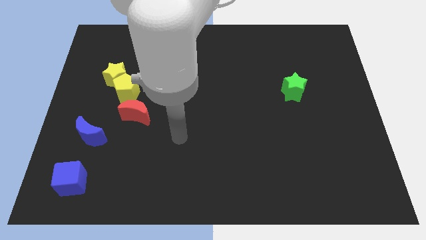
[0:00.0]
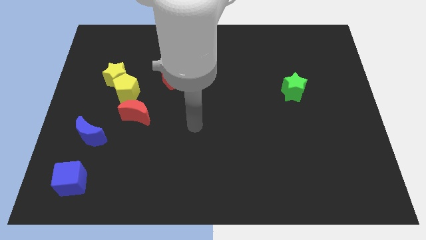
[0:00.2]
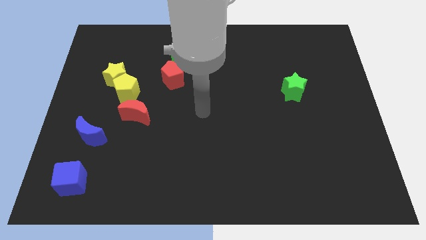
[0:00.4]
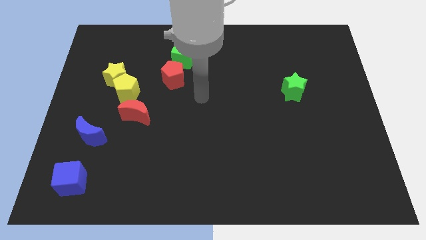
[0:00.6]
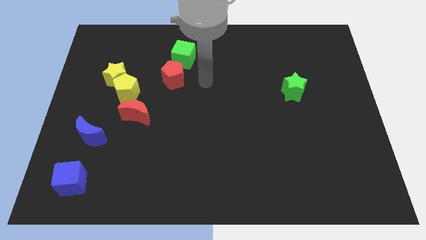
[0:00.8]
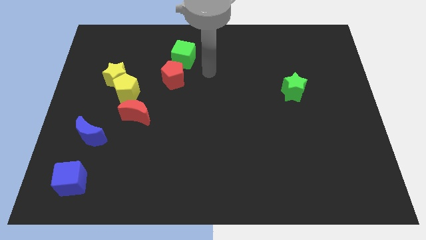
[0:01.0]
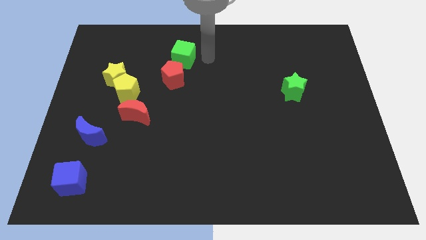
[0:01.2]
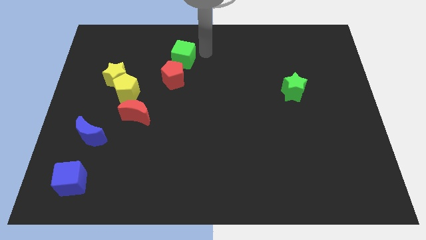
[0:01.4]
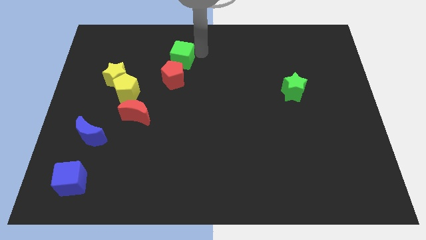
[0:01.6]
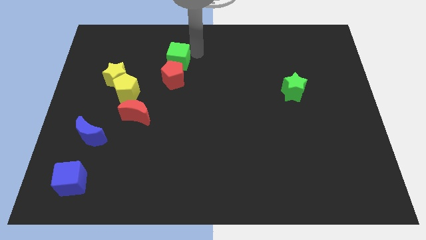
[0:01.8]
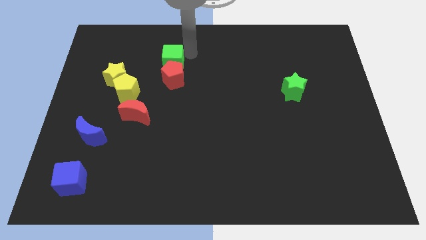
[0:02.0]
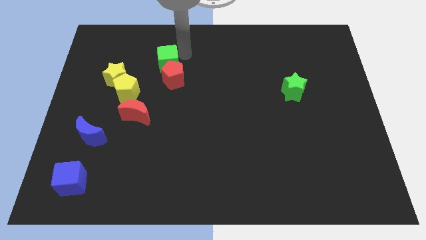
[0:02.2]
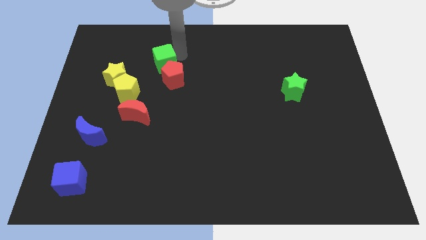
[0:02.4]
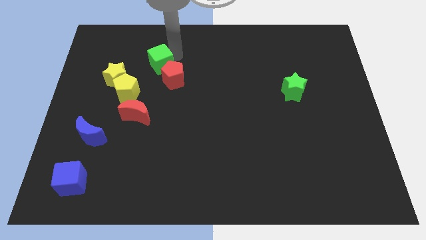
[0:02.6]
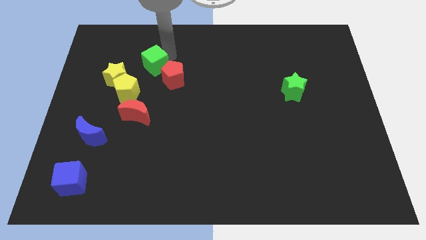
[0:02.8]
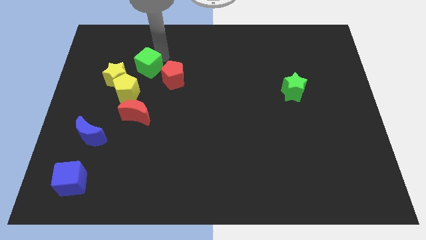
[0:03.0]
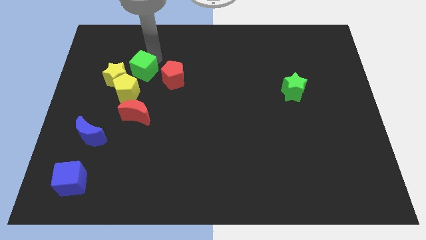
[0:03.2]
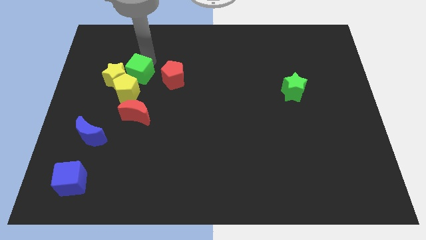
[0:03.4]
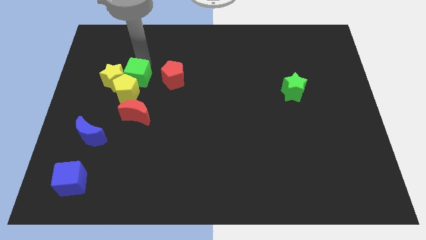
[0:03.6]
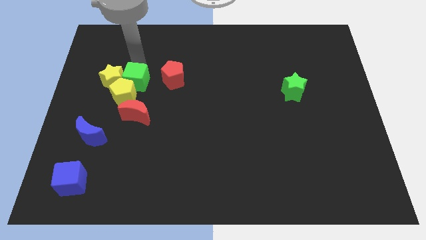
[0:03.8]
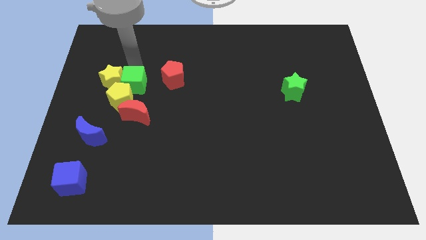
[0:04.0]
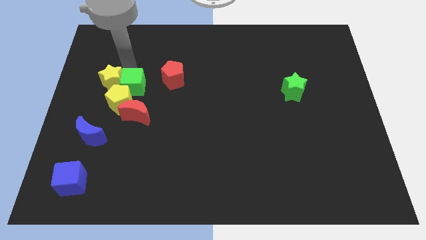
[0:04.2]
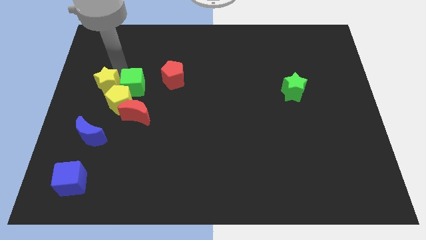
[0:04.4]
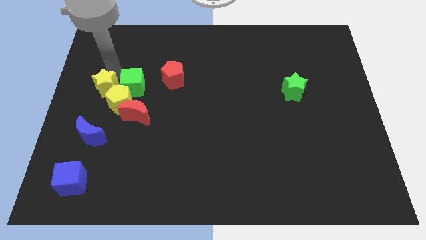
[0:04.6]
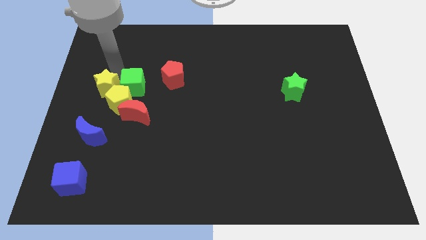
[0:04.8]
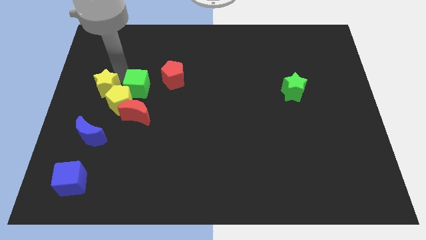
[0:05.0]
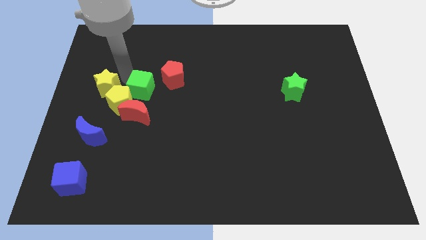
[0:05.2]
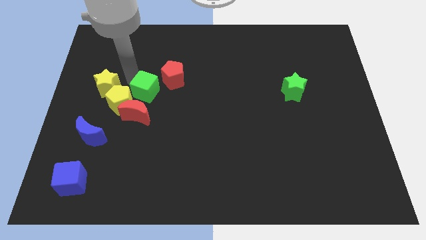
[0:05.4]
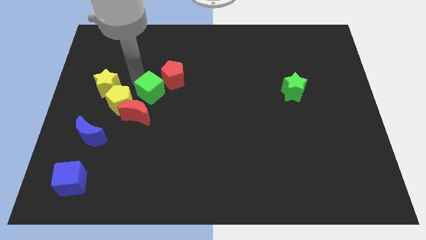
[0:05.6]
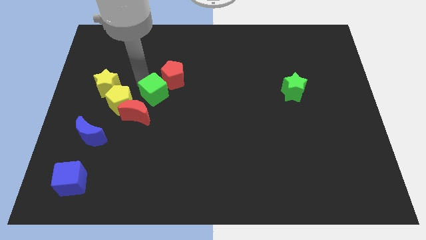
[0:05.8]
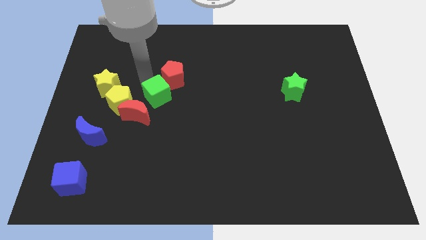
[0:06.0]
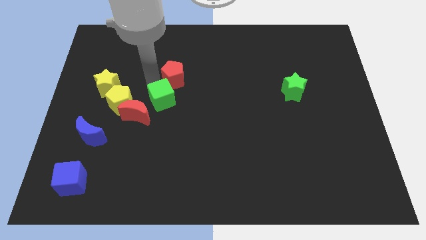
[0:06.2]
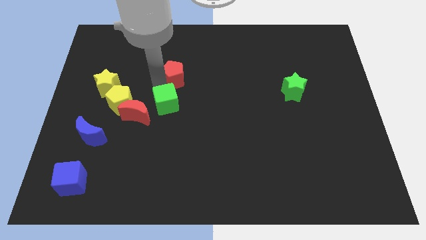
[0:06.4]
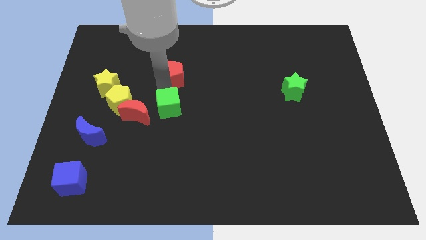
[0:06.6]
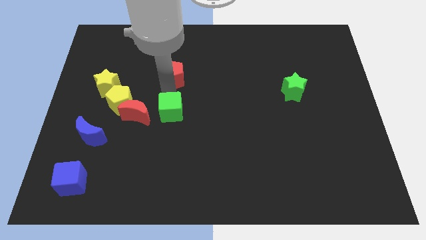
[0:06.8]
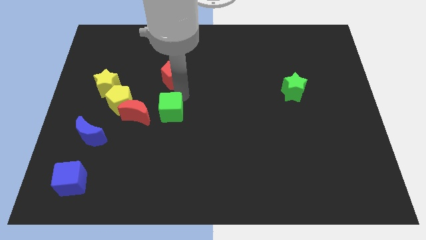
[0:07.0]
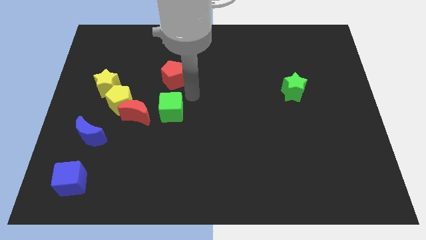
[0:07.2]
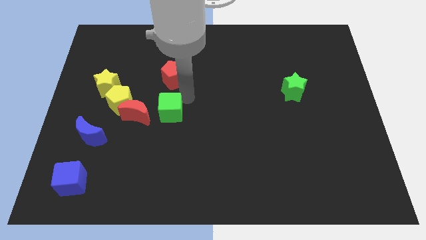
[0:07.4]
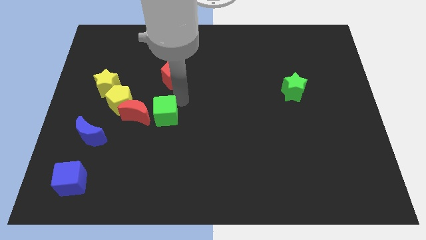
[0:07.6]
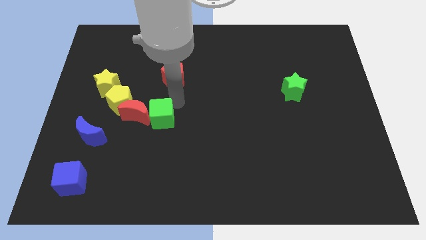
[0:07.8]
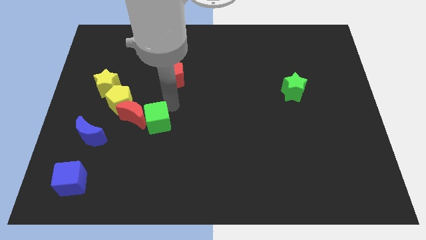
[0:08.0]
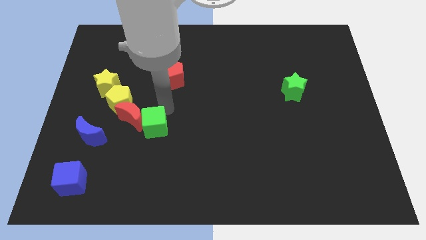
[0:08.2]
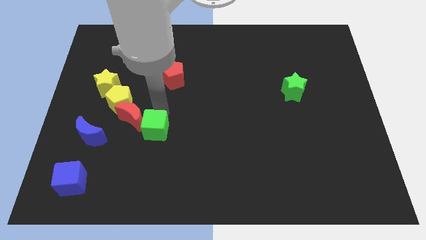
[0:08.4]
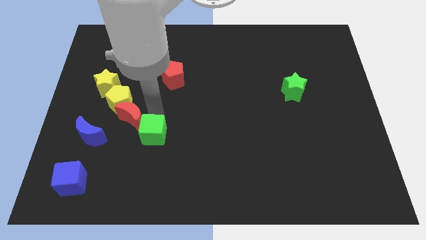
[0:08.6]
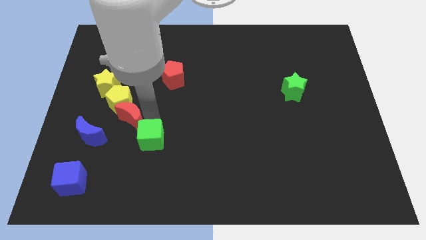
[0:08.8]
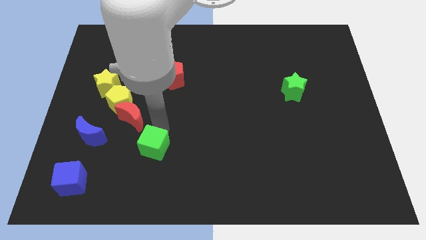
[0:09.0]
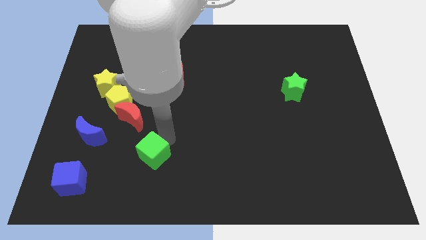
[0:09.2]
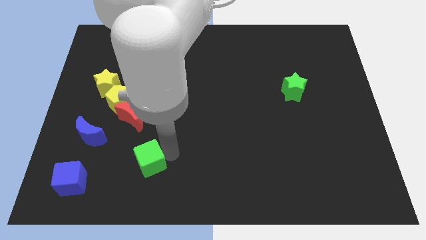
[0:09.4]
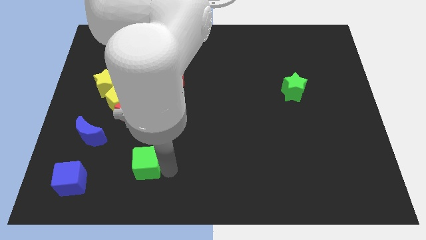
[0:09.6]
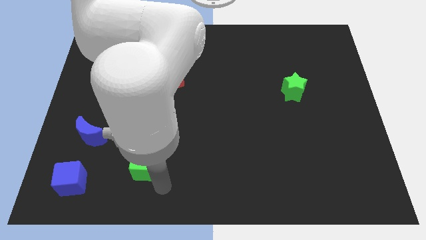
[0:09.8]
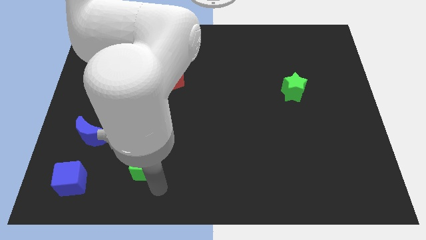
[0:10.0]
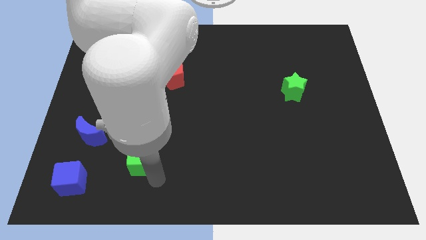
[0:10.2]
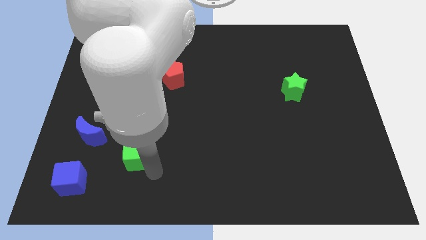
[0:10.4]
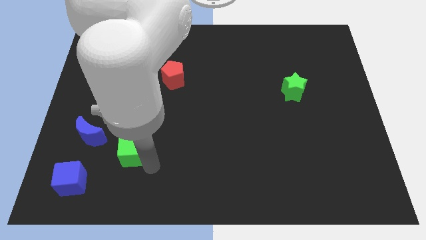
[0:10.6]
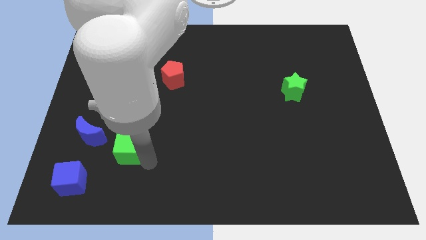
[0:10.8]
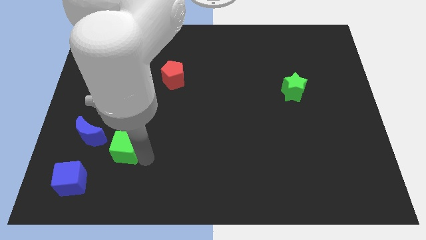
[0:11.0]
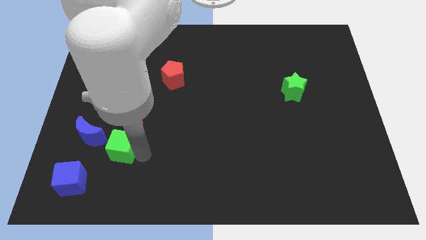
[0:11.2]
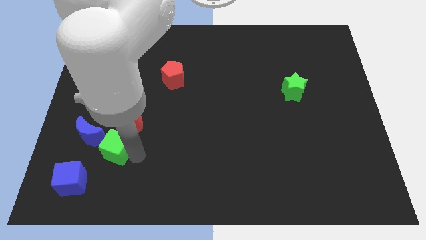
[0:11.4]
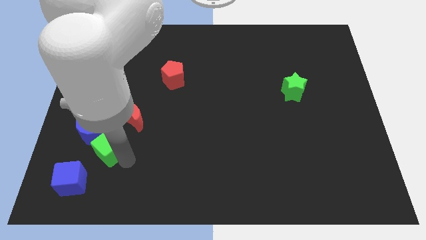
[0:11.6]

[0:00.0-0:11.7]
put the green cube to the blue moon

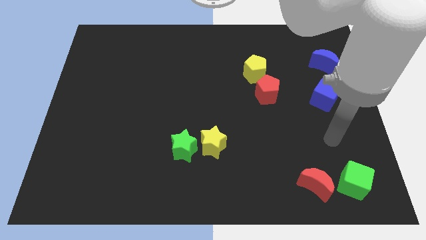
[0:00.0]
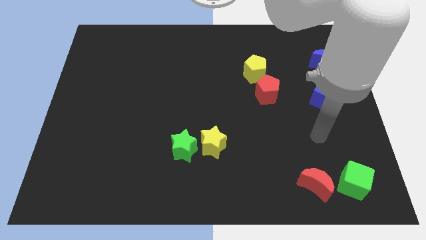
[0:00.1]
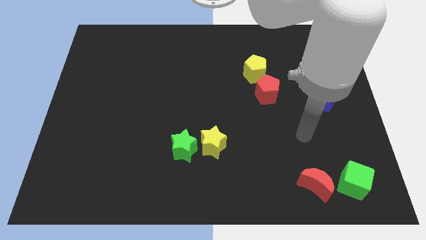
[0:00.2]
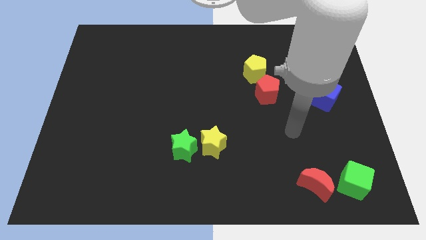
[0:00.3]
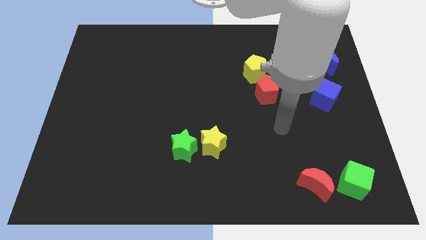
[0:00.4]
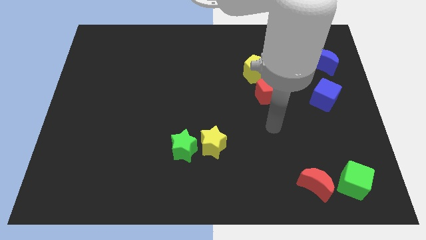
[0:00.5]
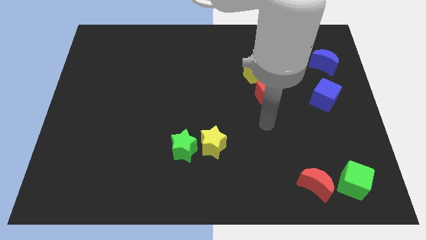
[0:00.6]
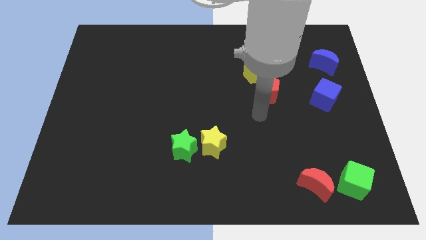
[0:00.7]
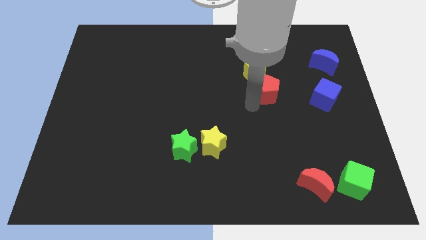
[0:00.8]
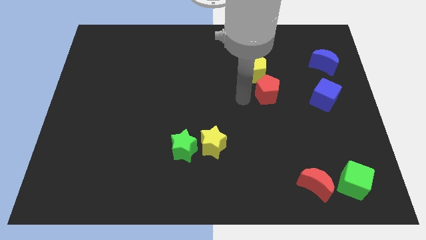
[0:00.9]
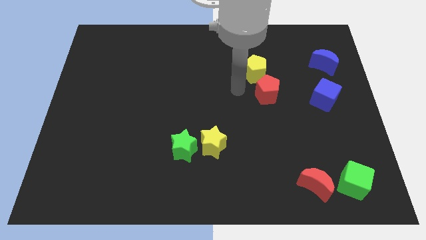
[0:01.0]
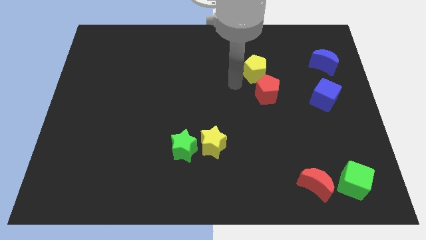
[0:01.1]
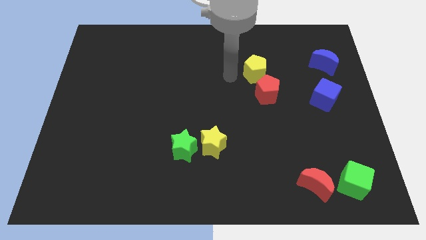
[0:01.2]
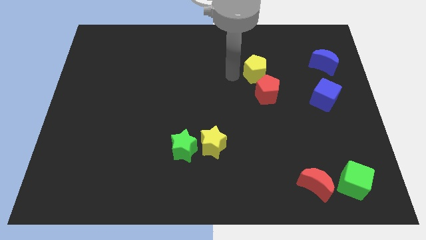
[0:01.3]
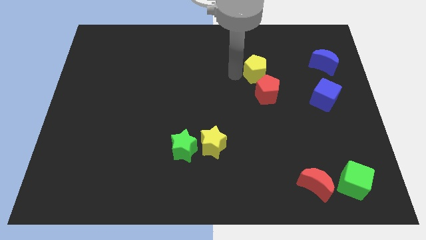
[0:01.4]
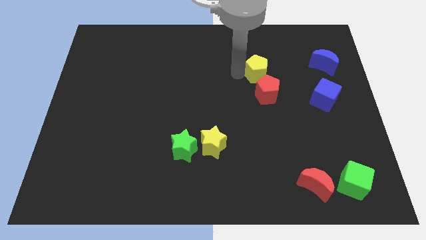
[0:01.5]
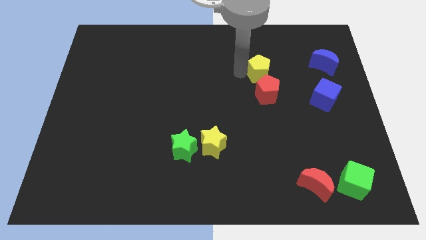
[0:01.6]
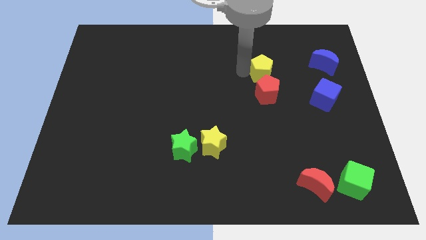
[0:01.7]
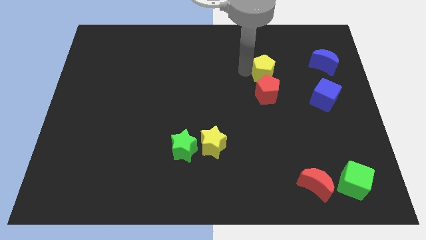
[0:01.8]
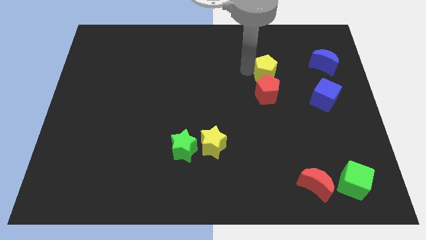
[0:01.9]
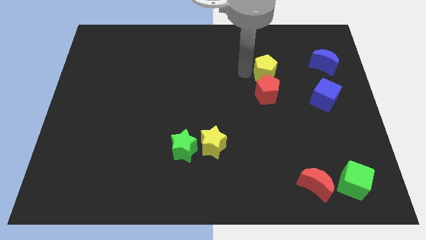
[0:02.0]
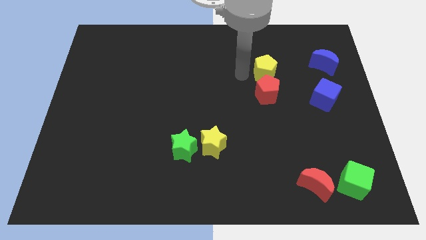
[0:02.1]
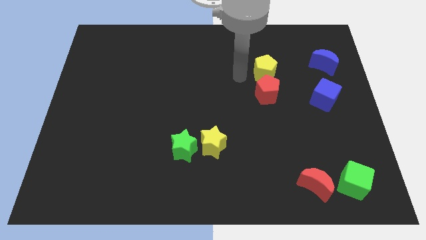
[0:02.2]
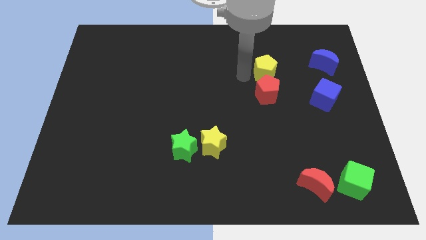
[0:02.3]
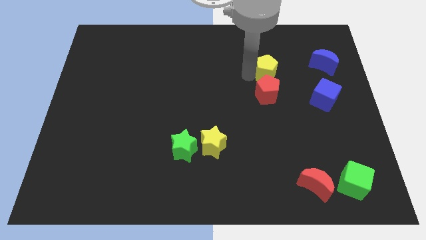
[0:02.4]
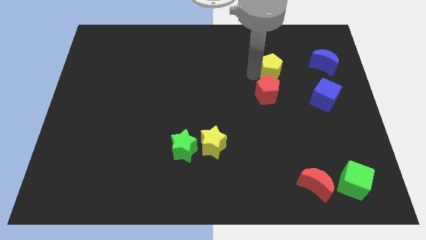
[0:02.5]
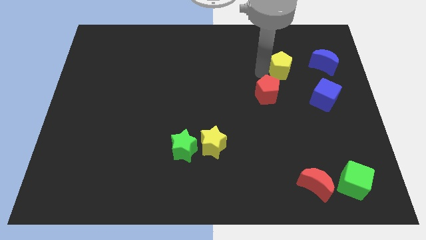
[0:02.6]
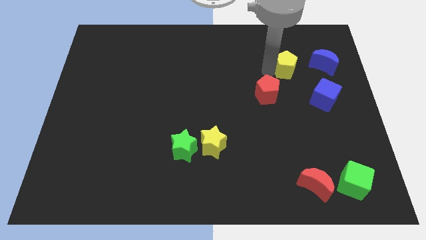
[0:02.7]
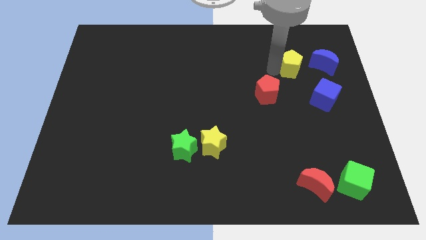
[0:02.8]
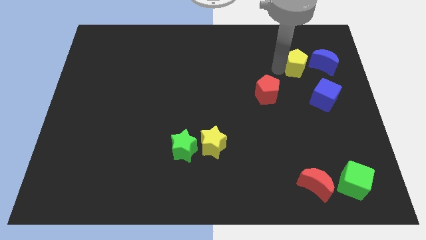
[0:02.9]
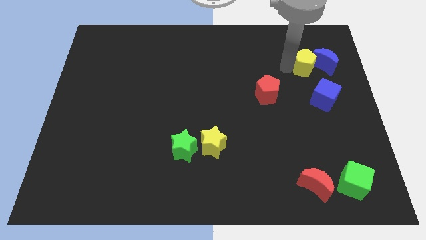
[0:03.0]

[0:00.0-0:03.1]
push the yellow pentagon towards the blue moon
